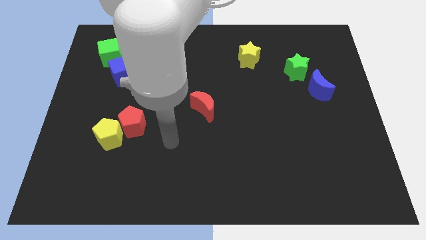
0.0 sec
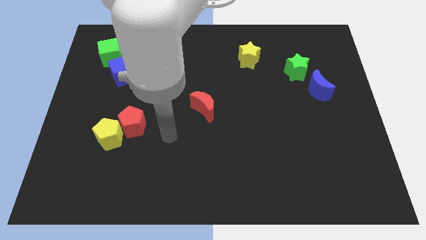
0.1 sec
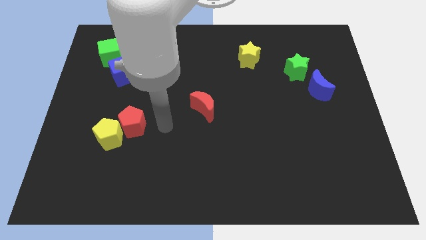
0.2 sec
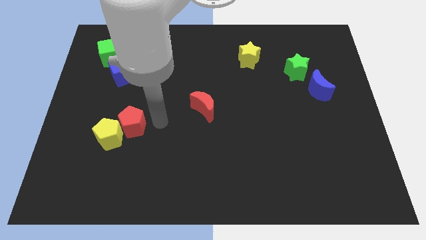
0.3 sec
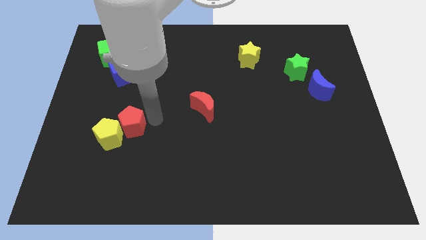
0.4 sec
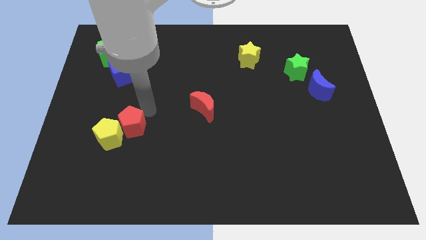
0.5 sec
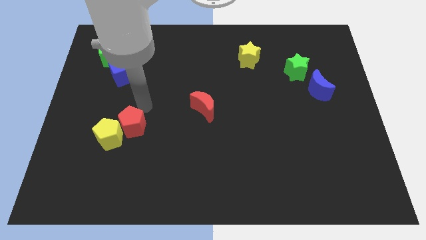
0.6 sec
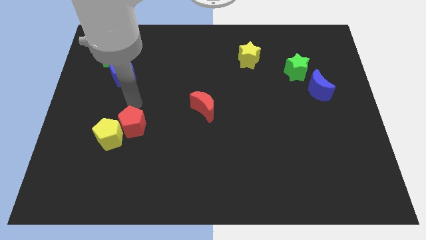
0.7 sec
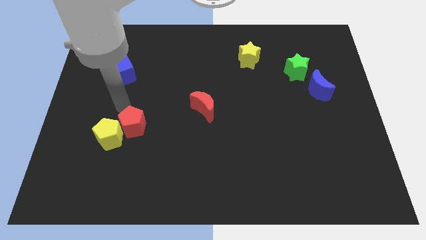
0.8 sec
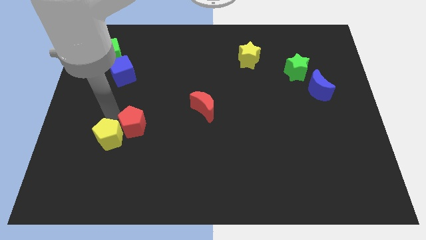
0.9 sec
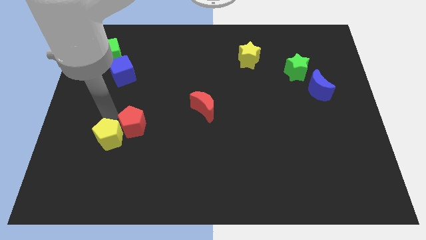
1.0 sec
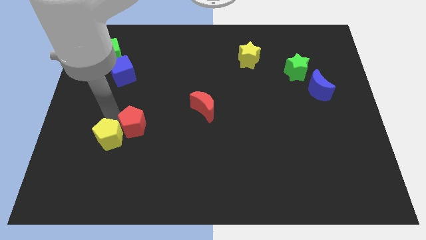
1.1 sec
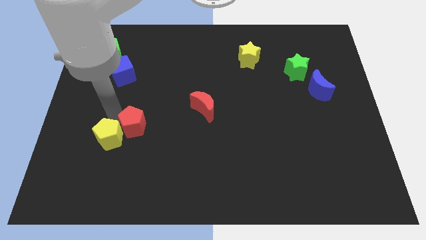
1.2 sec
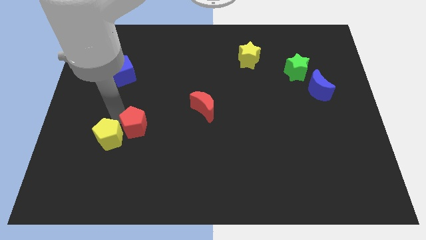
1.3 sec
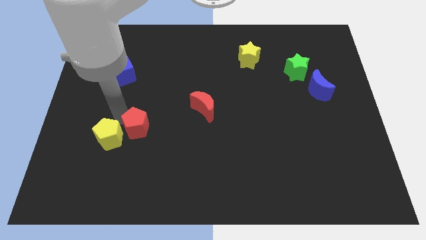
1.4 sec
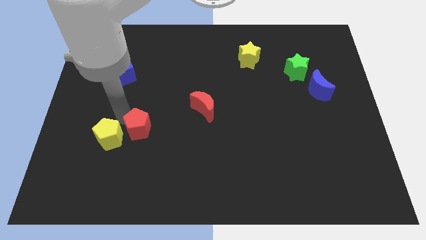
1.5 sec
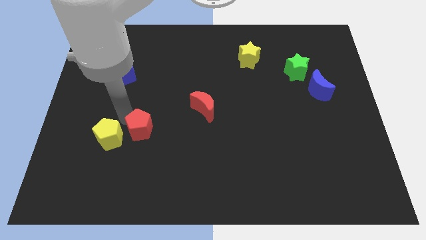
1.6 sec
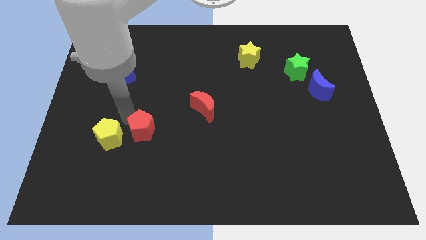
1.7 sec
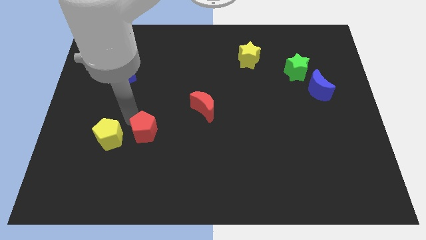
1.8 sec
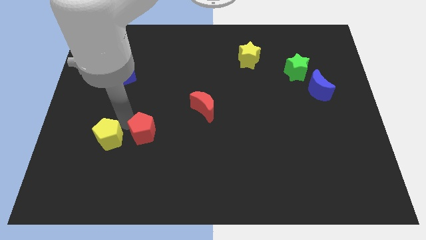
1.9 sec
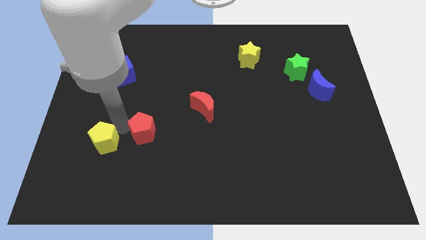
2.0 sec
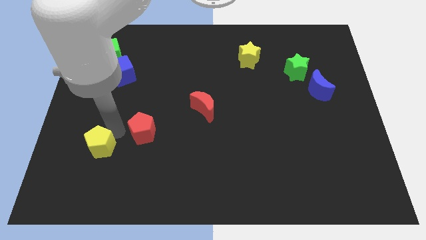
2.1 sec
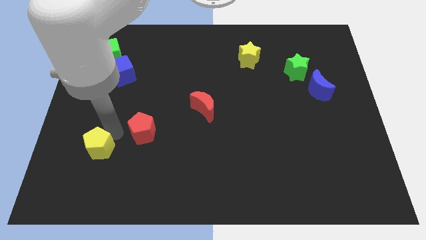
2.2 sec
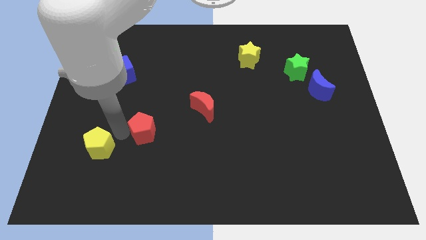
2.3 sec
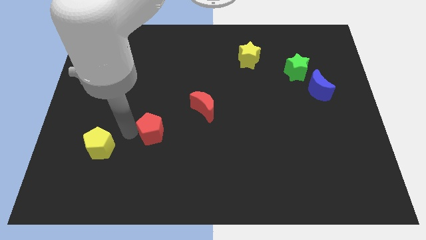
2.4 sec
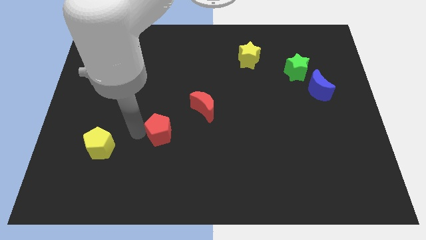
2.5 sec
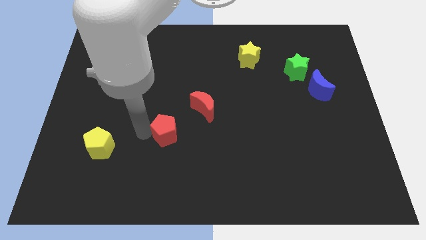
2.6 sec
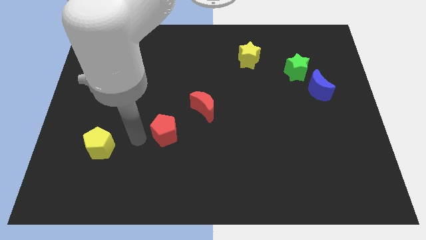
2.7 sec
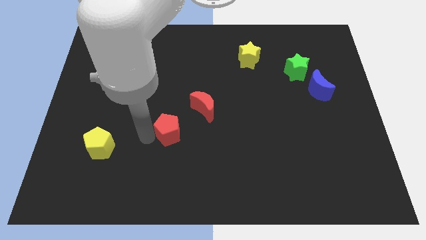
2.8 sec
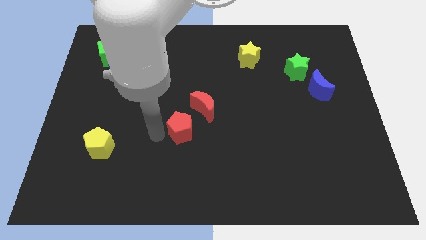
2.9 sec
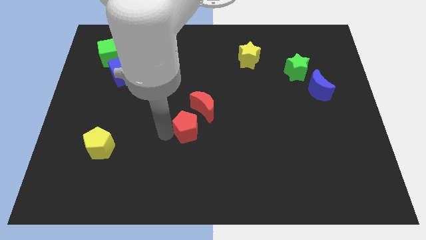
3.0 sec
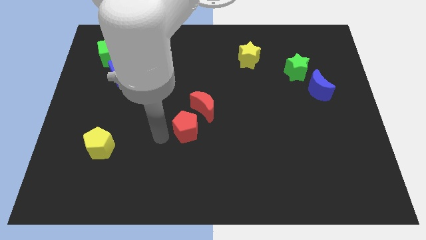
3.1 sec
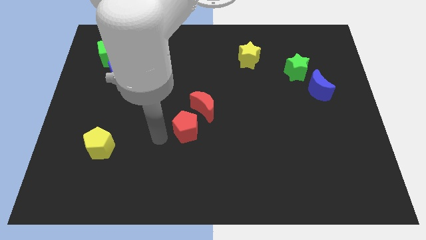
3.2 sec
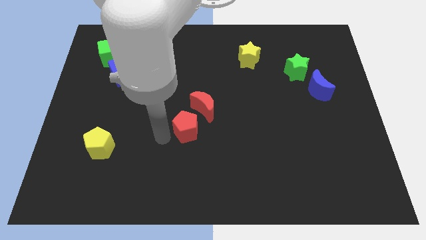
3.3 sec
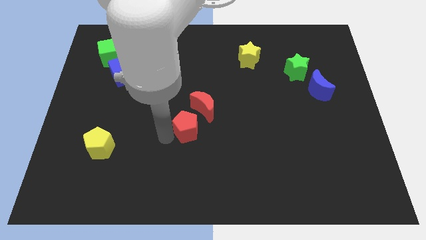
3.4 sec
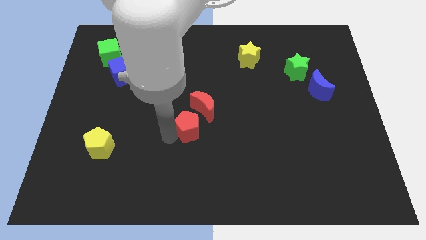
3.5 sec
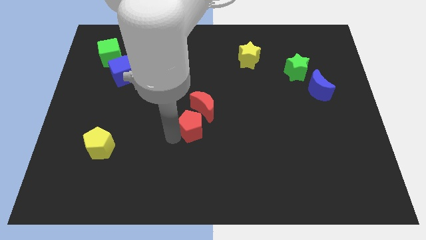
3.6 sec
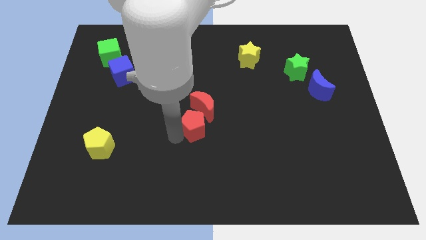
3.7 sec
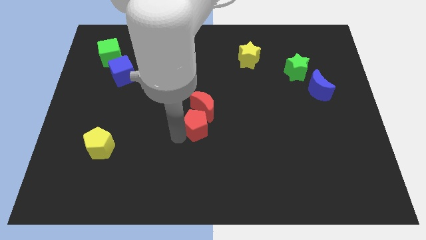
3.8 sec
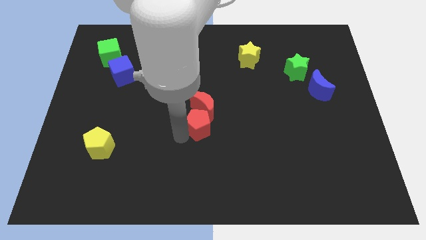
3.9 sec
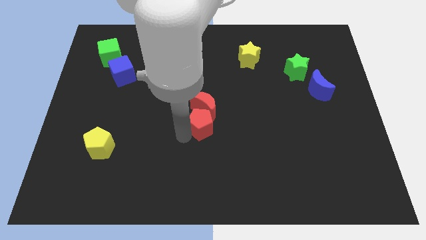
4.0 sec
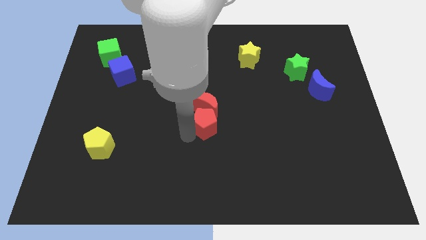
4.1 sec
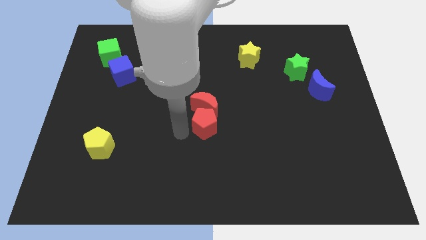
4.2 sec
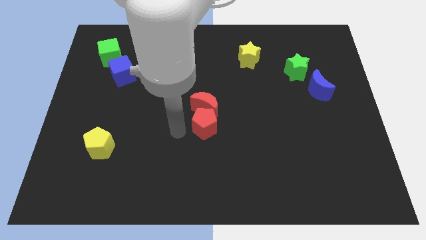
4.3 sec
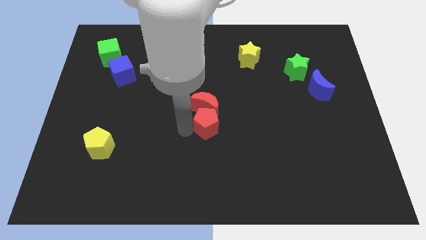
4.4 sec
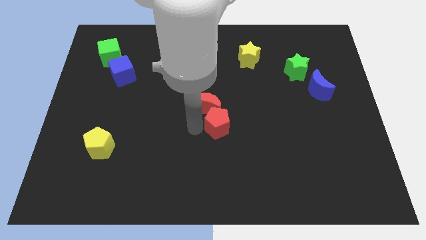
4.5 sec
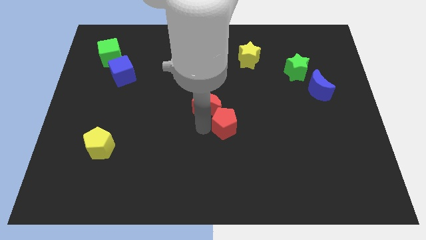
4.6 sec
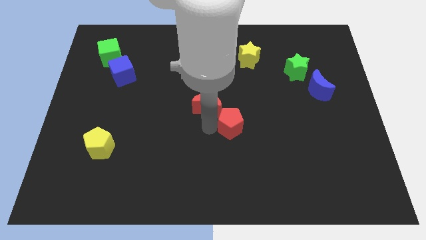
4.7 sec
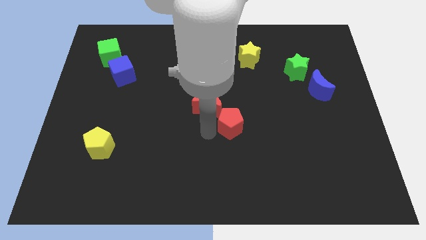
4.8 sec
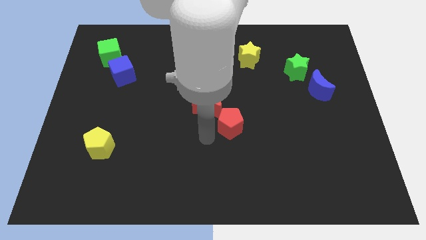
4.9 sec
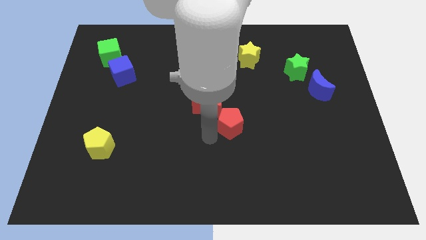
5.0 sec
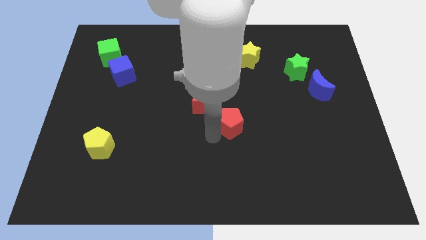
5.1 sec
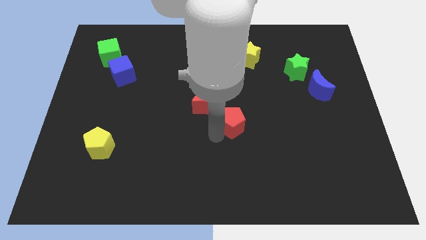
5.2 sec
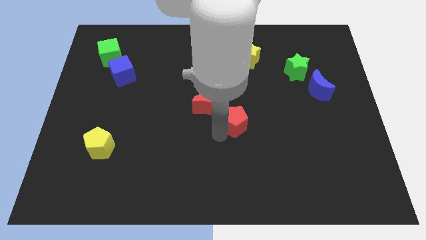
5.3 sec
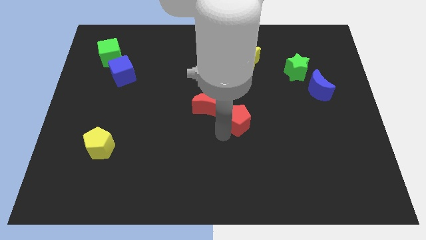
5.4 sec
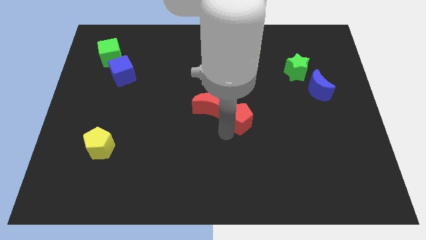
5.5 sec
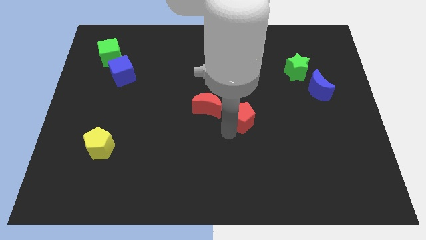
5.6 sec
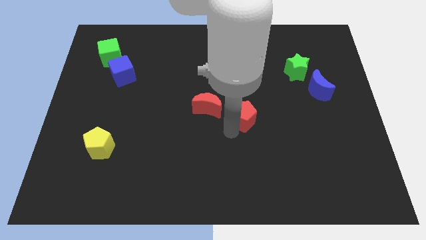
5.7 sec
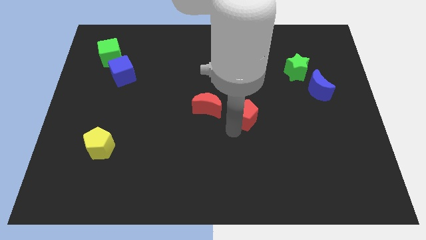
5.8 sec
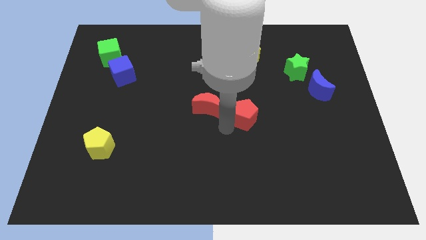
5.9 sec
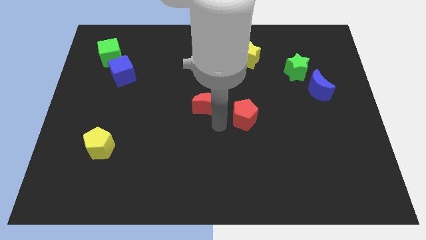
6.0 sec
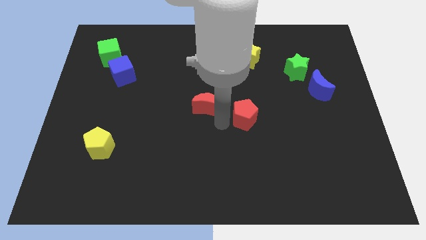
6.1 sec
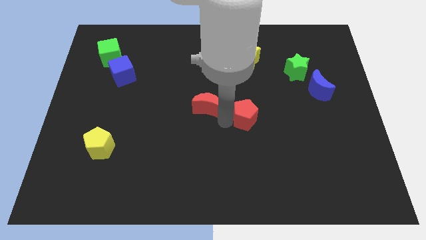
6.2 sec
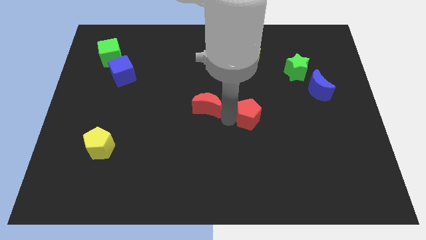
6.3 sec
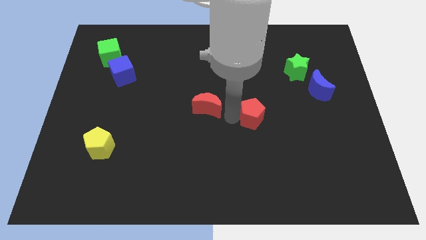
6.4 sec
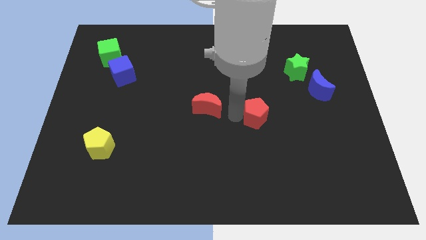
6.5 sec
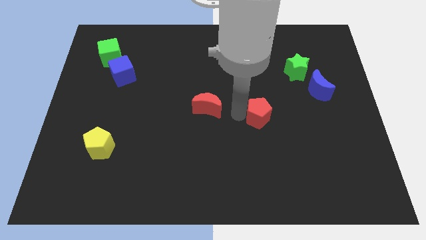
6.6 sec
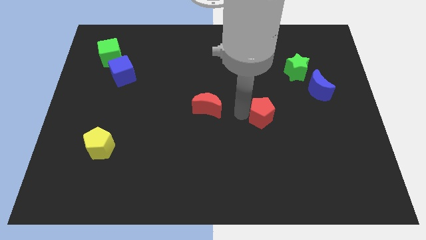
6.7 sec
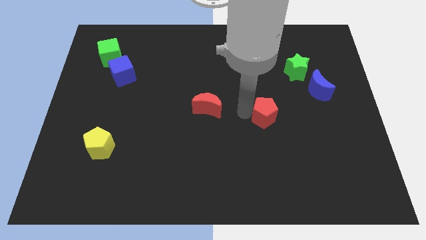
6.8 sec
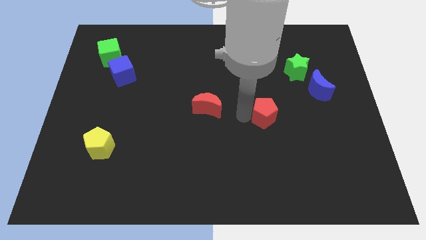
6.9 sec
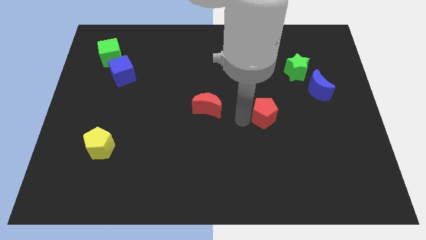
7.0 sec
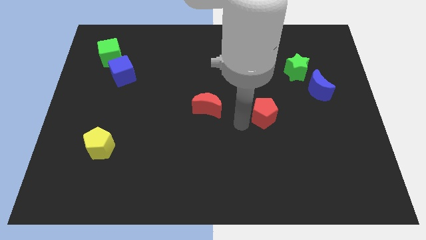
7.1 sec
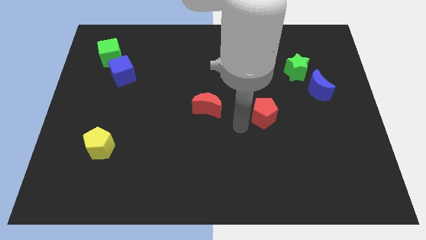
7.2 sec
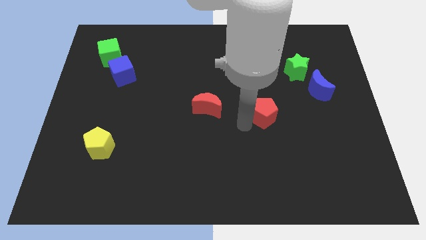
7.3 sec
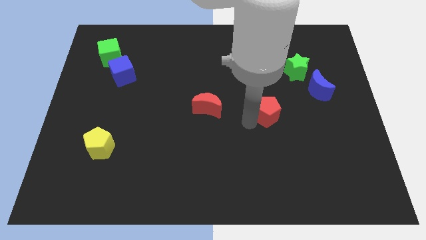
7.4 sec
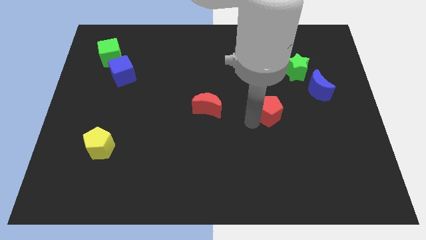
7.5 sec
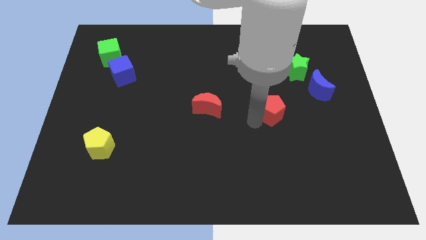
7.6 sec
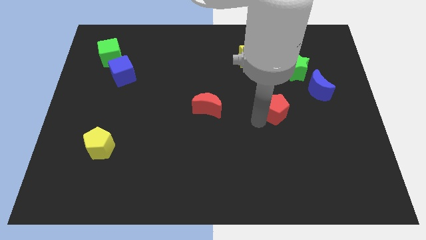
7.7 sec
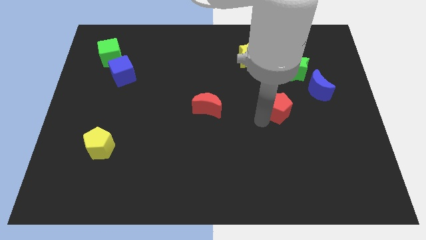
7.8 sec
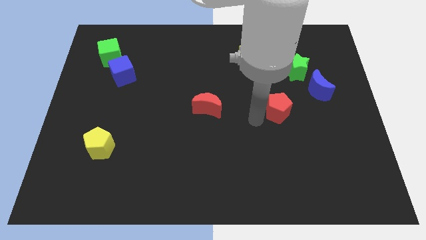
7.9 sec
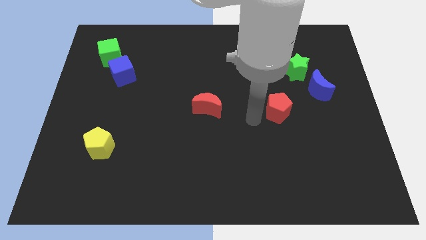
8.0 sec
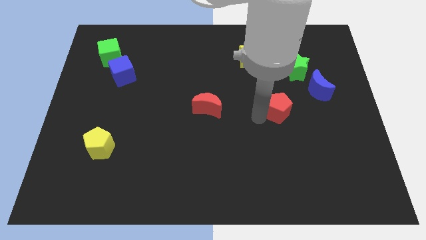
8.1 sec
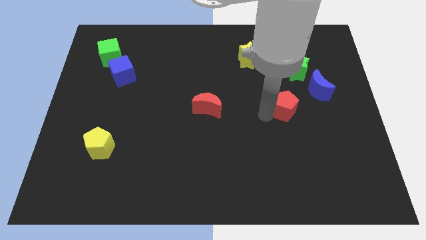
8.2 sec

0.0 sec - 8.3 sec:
push the red pentagon below the green star

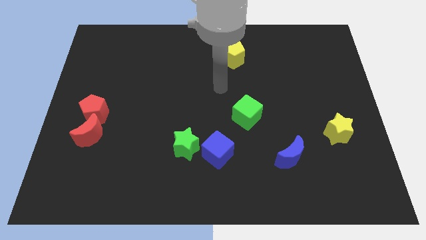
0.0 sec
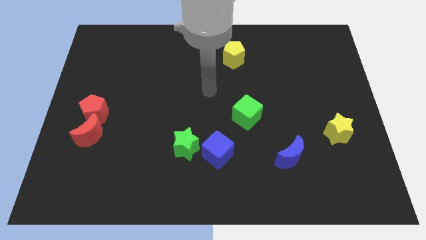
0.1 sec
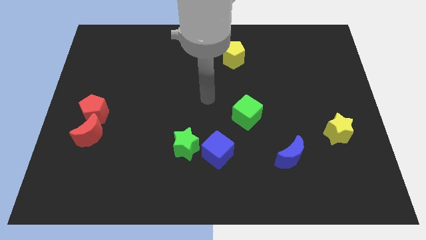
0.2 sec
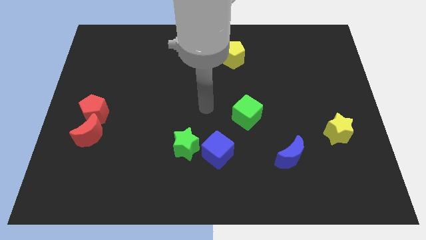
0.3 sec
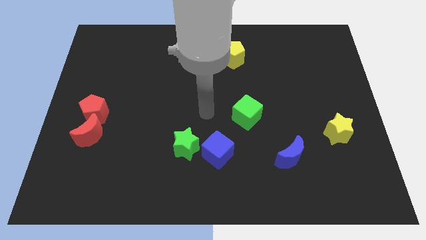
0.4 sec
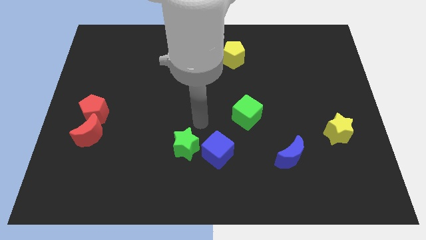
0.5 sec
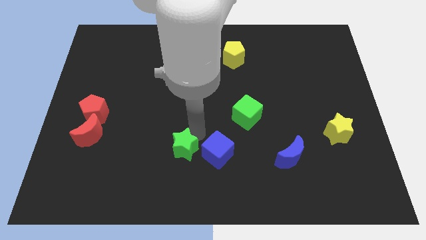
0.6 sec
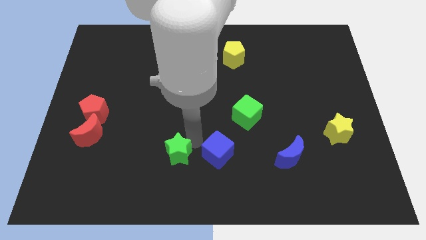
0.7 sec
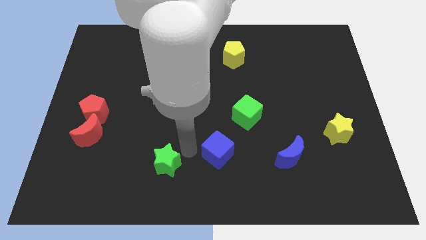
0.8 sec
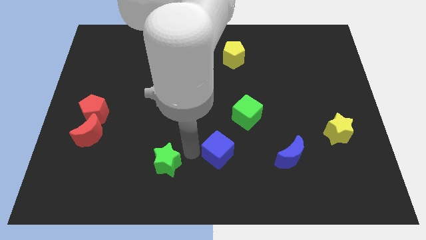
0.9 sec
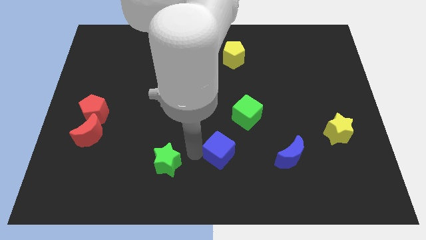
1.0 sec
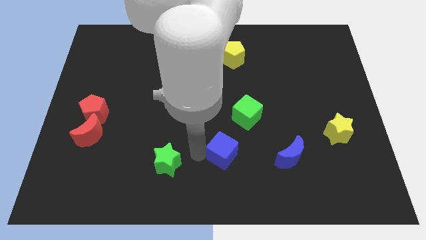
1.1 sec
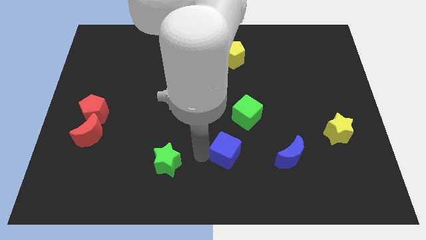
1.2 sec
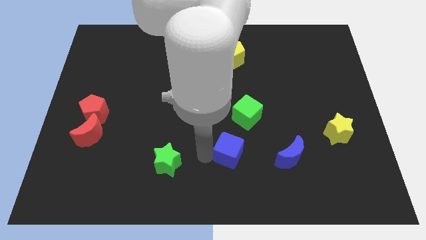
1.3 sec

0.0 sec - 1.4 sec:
move the blue cube to the bottom of the green cube
